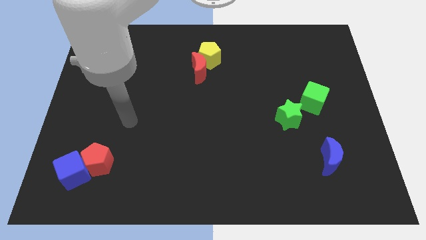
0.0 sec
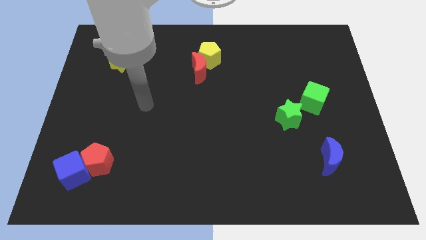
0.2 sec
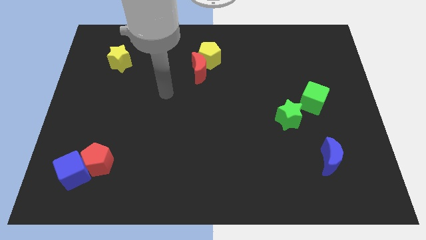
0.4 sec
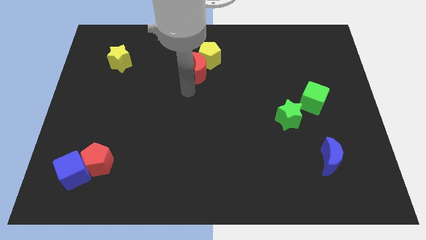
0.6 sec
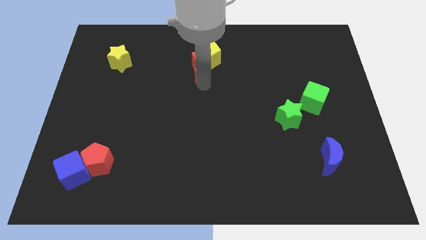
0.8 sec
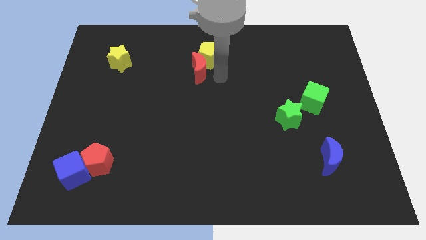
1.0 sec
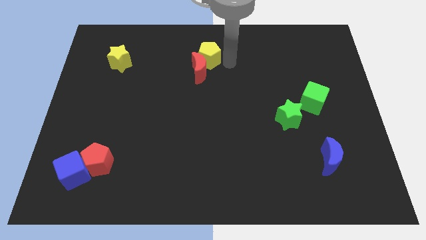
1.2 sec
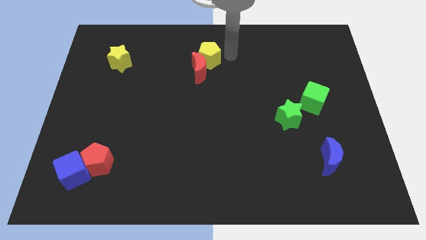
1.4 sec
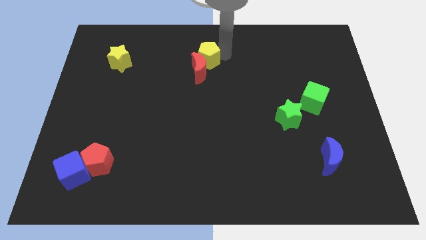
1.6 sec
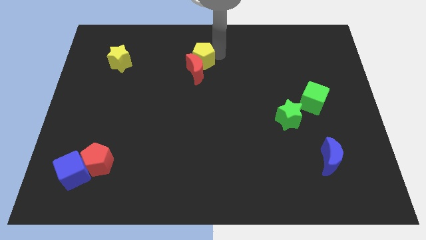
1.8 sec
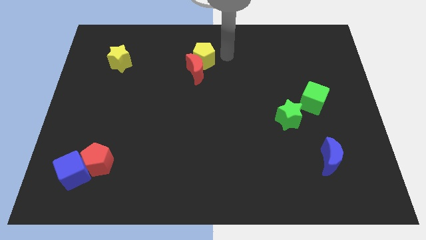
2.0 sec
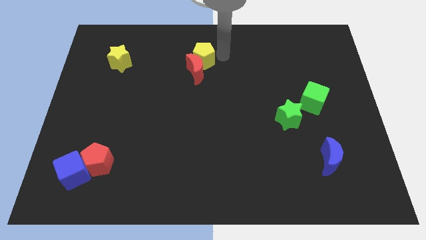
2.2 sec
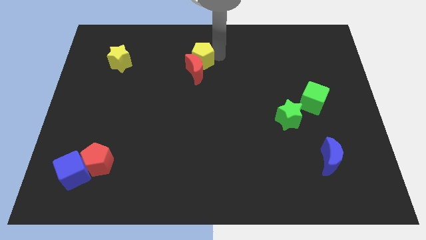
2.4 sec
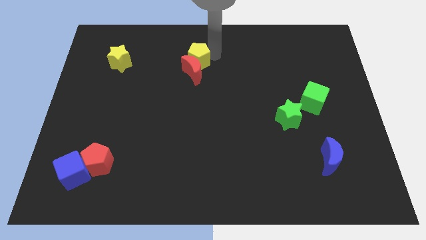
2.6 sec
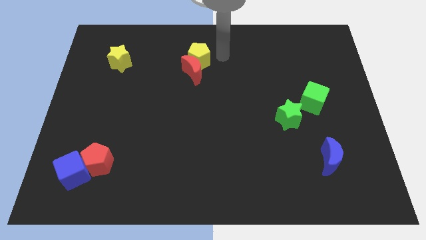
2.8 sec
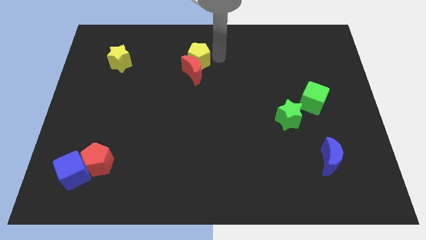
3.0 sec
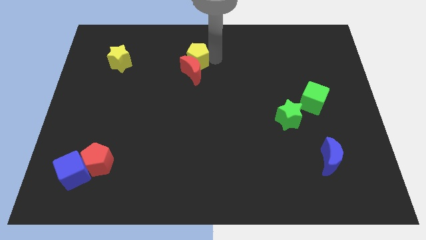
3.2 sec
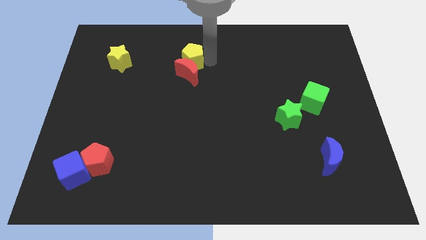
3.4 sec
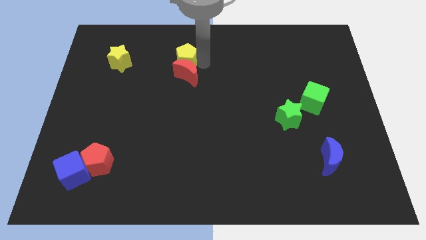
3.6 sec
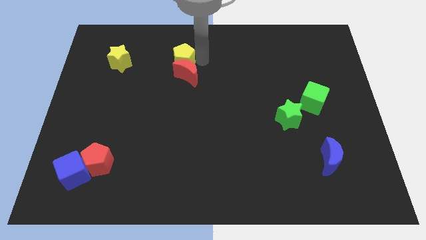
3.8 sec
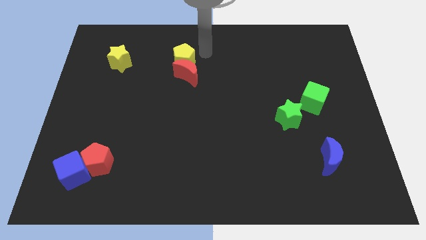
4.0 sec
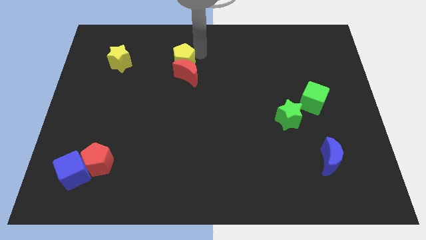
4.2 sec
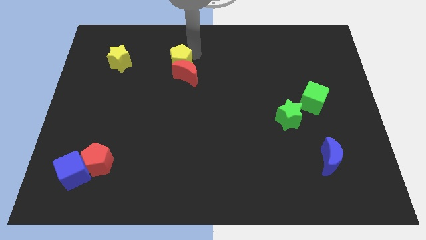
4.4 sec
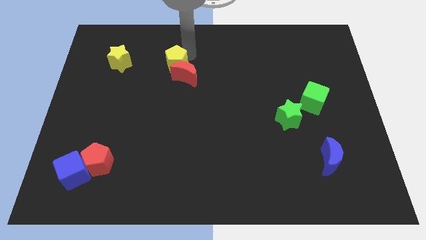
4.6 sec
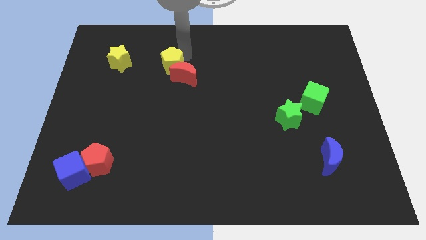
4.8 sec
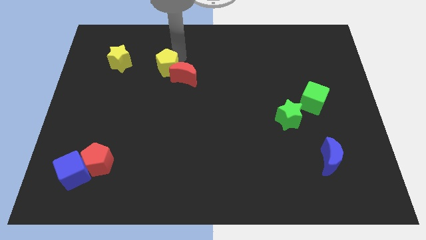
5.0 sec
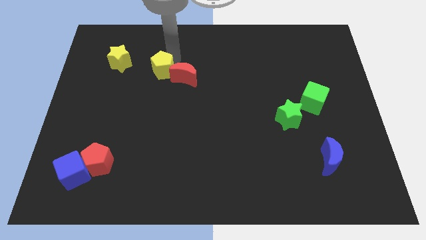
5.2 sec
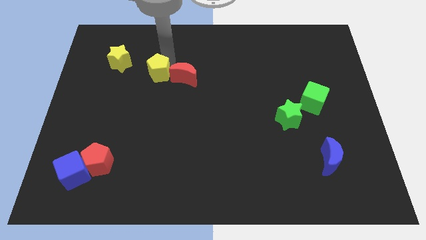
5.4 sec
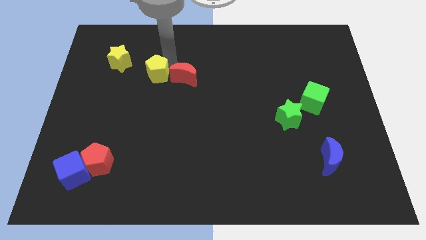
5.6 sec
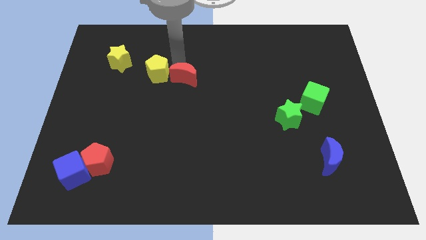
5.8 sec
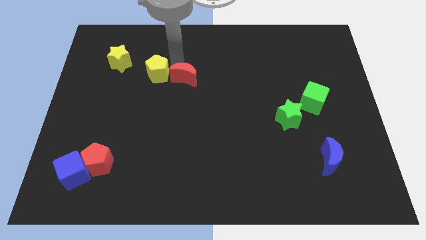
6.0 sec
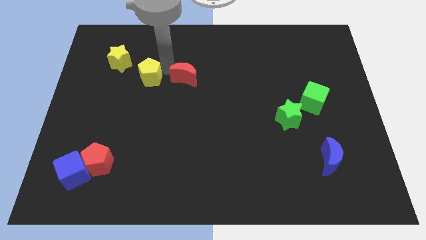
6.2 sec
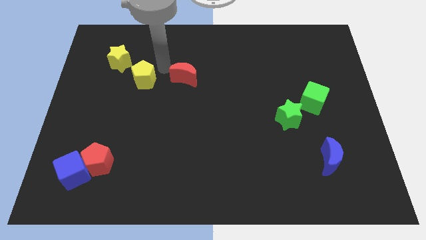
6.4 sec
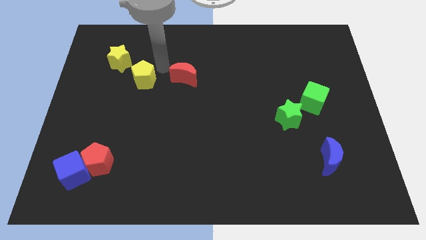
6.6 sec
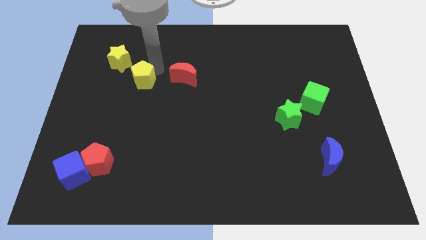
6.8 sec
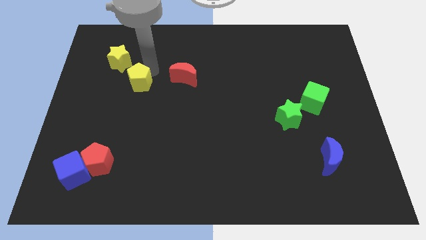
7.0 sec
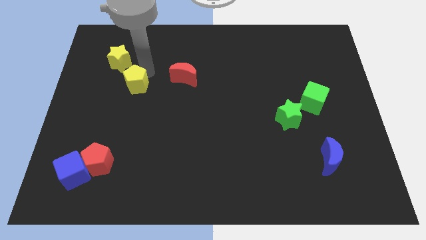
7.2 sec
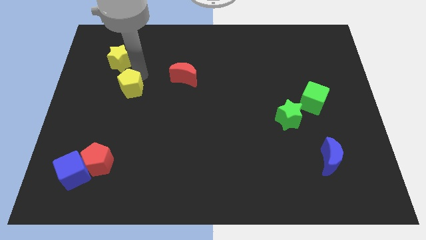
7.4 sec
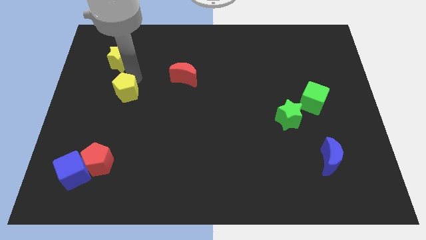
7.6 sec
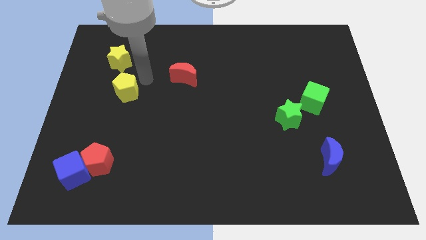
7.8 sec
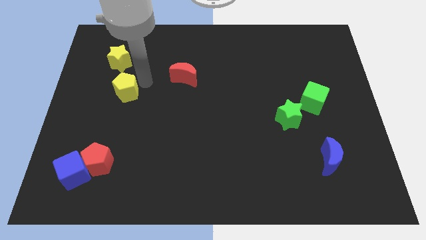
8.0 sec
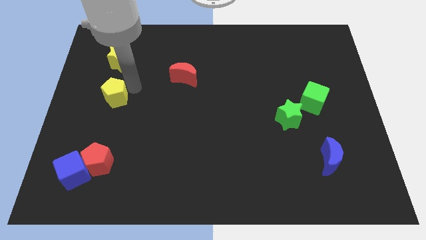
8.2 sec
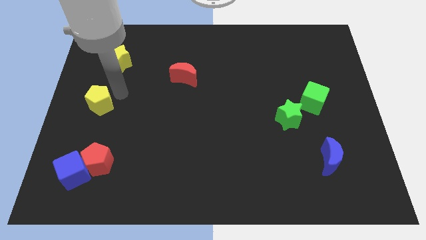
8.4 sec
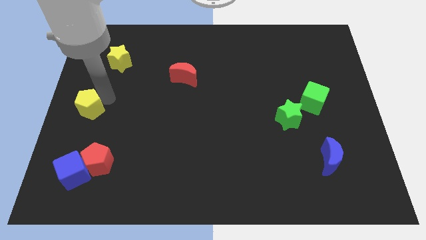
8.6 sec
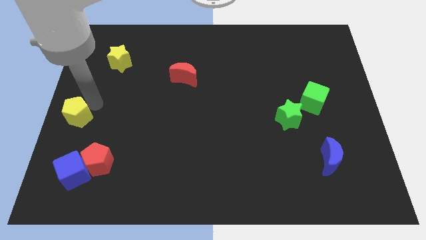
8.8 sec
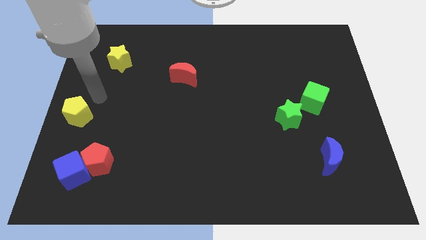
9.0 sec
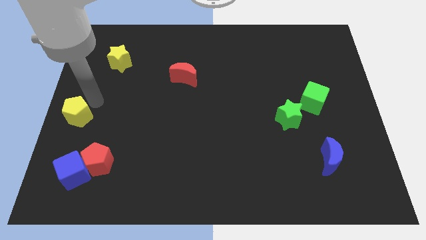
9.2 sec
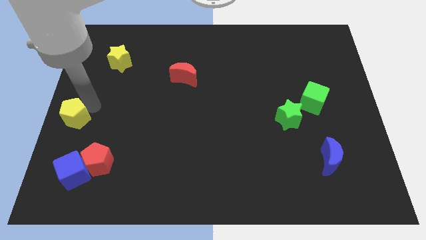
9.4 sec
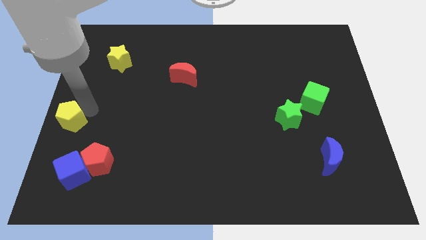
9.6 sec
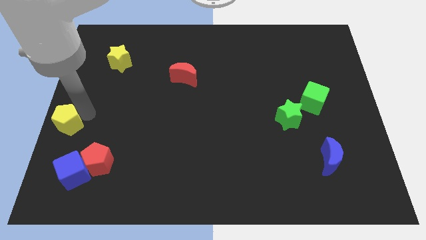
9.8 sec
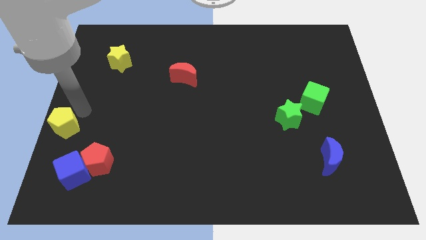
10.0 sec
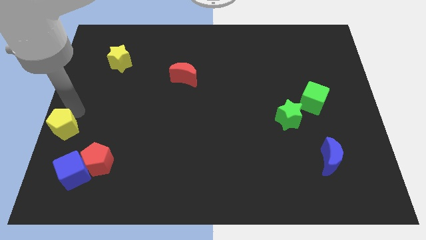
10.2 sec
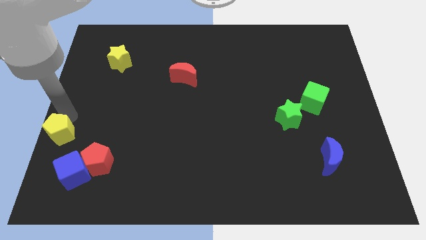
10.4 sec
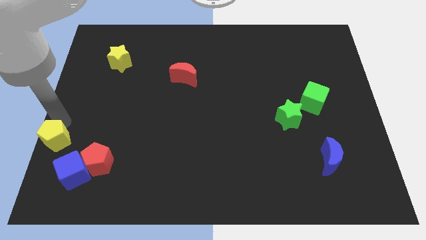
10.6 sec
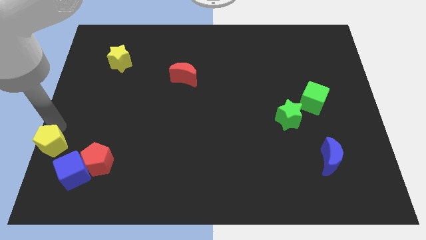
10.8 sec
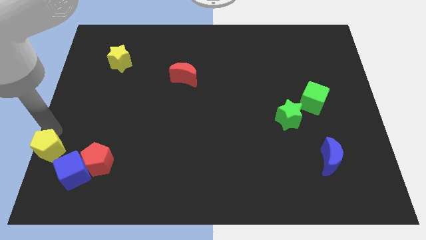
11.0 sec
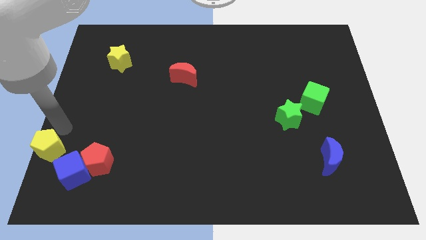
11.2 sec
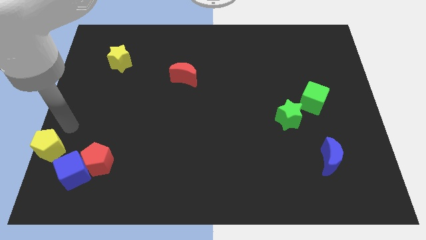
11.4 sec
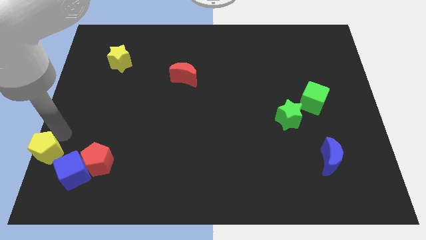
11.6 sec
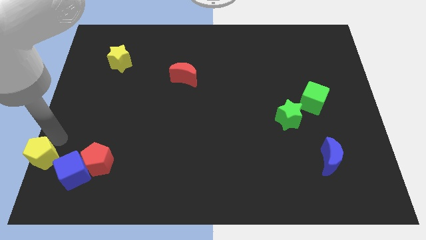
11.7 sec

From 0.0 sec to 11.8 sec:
move the yellow pentagon to the bottom left of the board
